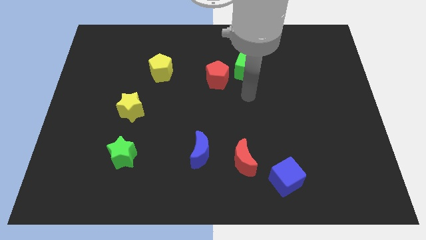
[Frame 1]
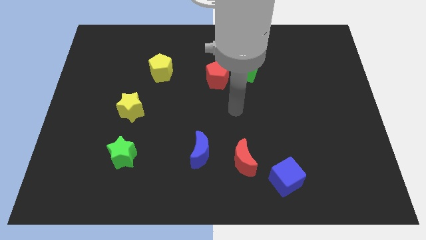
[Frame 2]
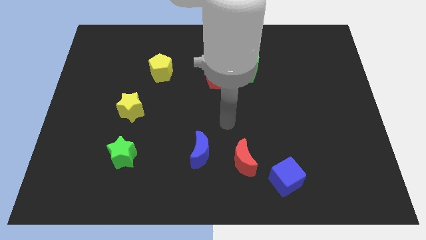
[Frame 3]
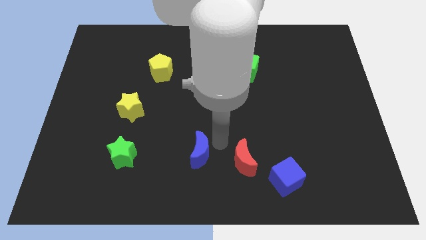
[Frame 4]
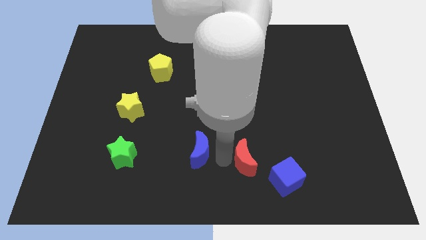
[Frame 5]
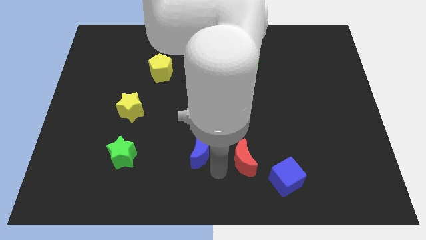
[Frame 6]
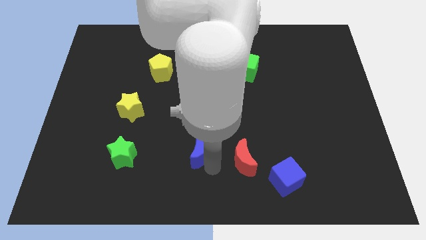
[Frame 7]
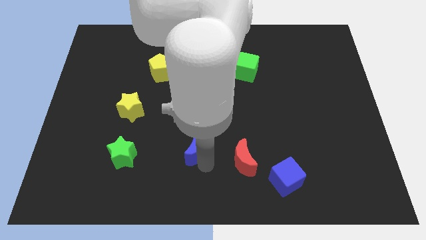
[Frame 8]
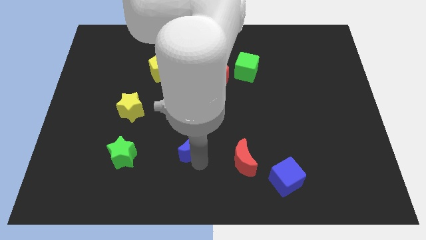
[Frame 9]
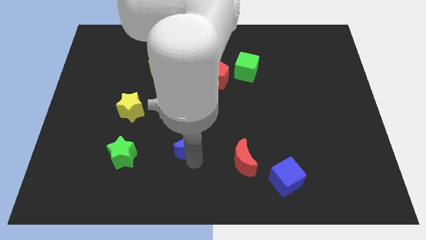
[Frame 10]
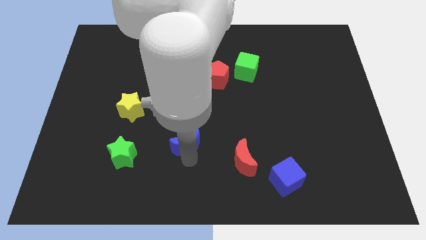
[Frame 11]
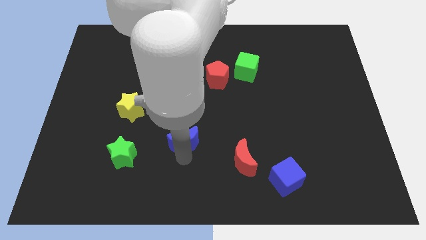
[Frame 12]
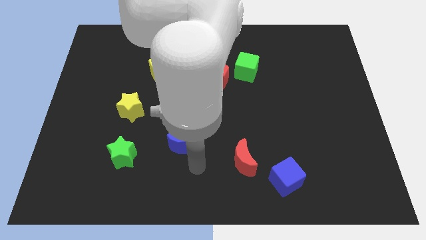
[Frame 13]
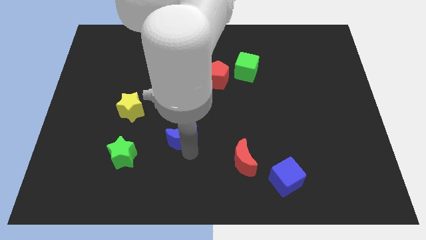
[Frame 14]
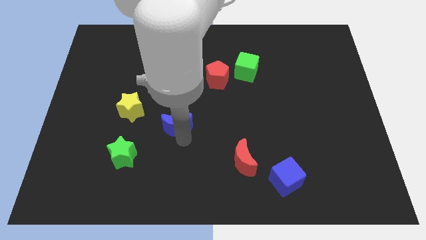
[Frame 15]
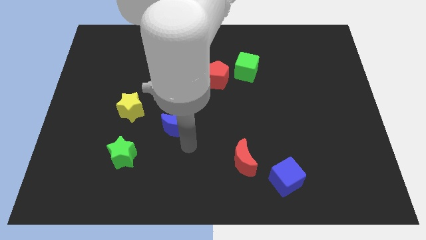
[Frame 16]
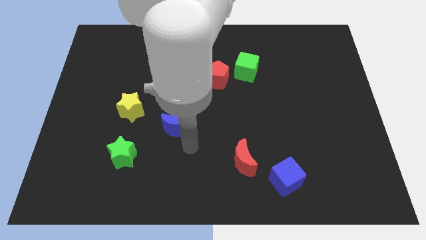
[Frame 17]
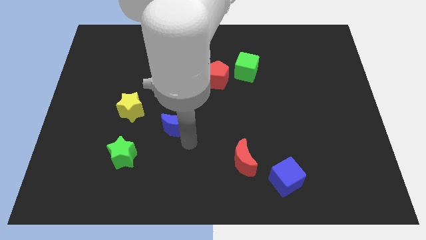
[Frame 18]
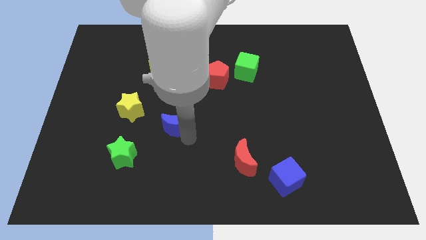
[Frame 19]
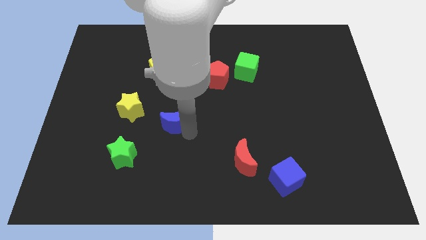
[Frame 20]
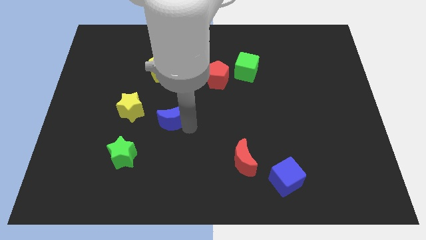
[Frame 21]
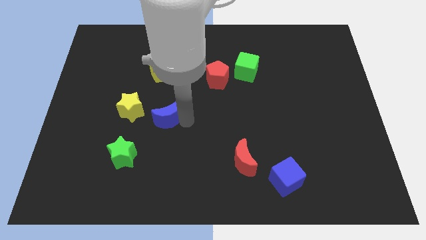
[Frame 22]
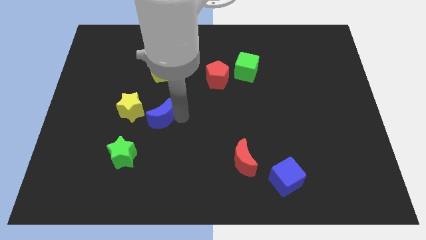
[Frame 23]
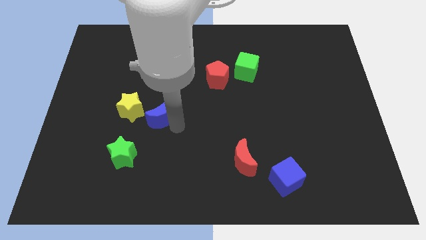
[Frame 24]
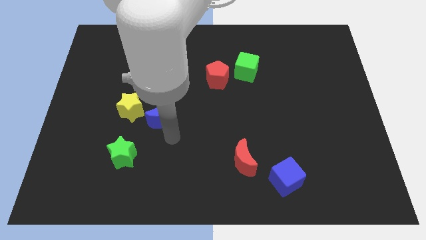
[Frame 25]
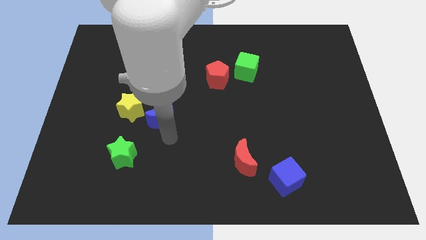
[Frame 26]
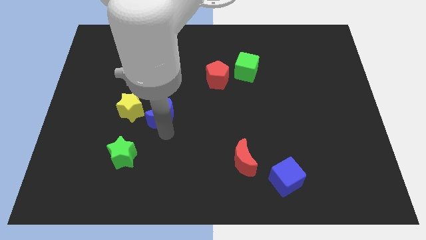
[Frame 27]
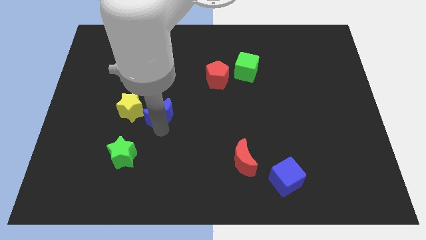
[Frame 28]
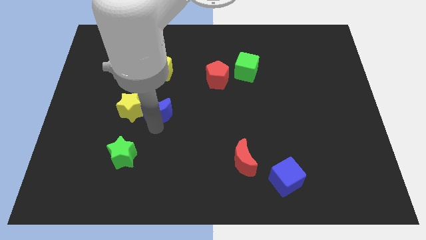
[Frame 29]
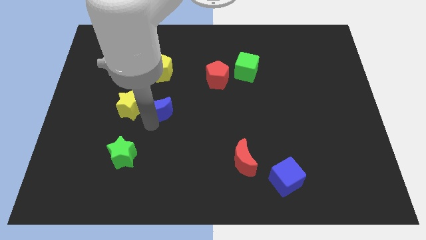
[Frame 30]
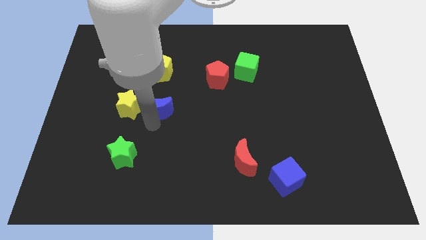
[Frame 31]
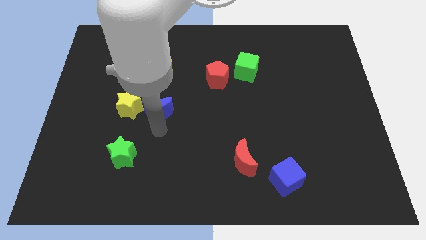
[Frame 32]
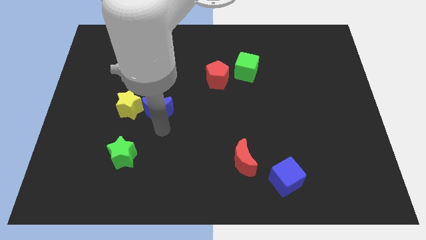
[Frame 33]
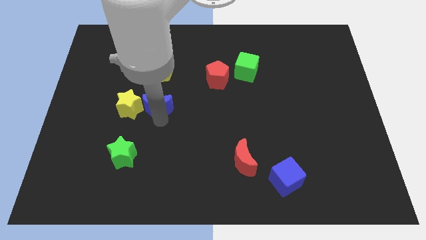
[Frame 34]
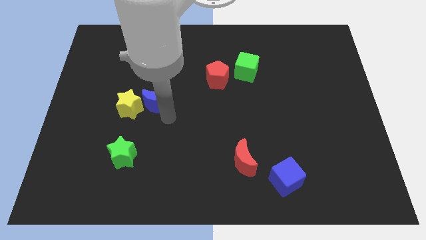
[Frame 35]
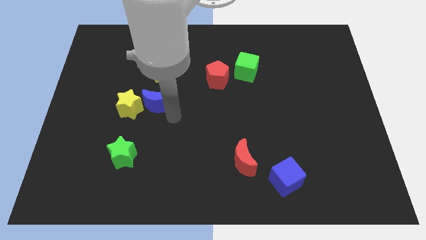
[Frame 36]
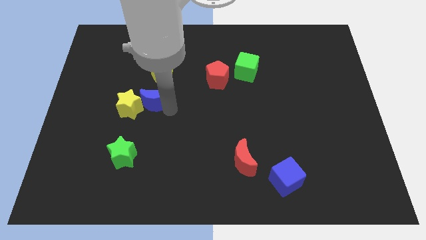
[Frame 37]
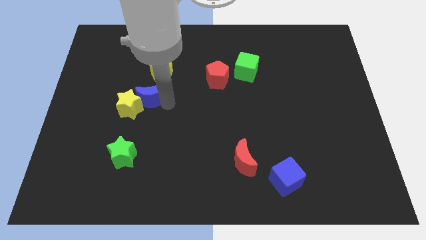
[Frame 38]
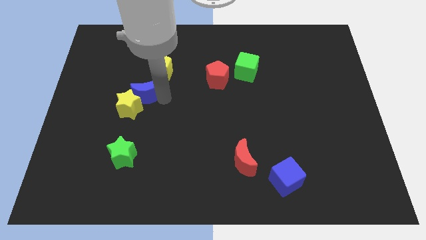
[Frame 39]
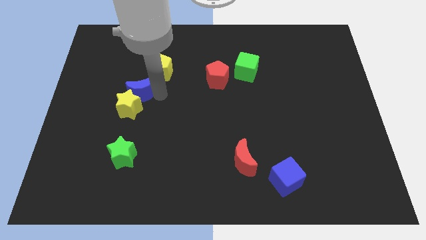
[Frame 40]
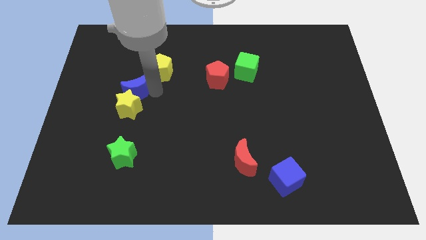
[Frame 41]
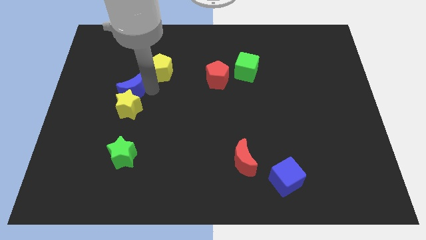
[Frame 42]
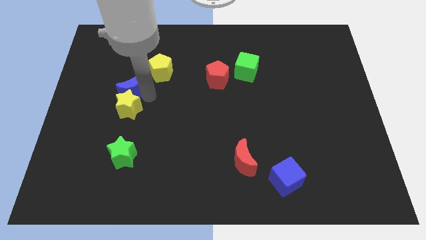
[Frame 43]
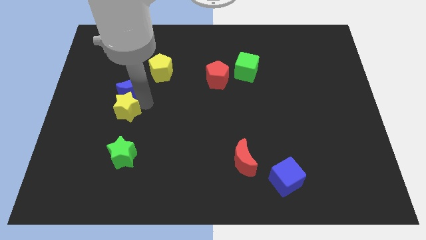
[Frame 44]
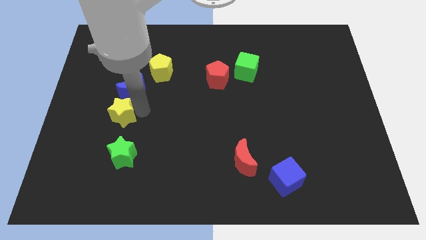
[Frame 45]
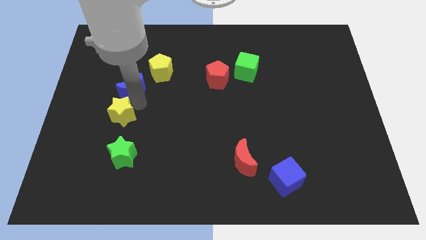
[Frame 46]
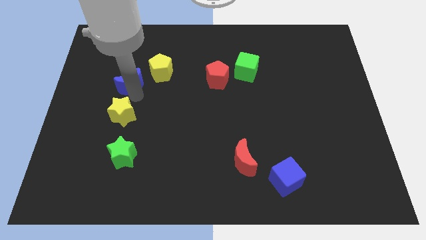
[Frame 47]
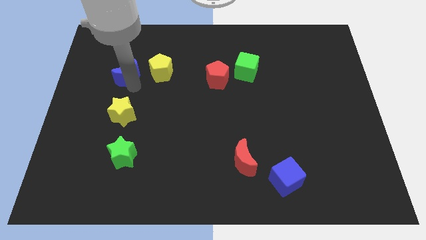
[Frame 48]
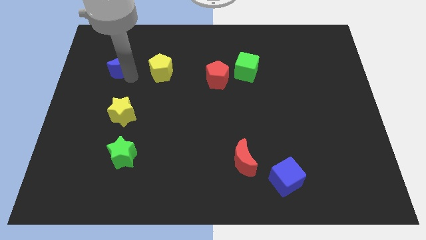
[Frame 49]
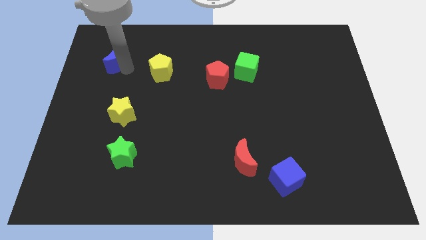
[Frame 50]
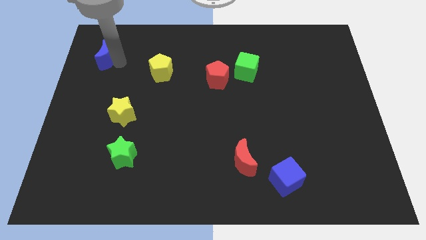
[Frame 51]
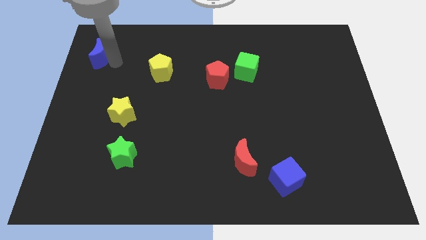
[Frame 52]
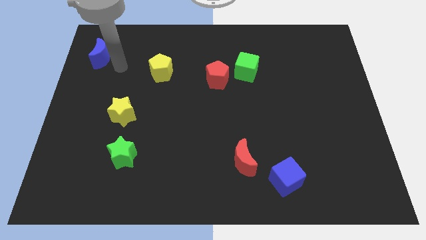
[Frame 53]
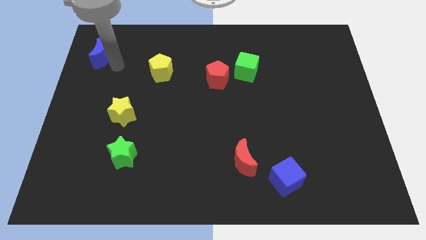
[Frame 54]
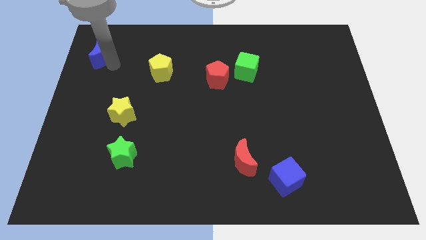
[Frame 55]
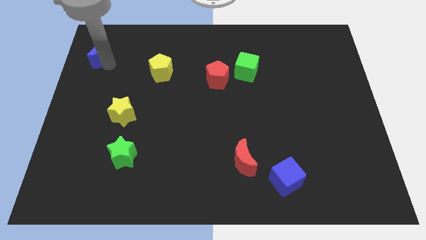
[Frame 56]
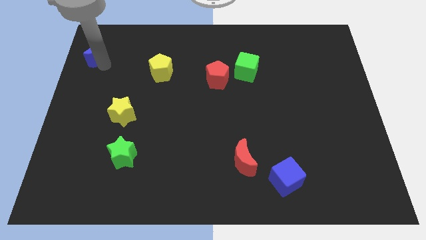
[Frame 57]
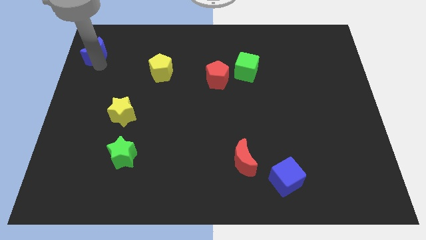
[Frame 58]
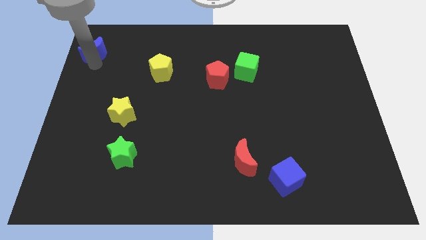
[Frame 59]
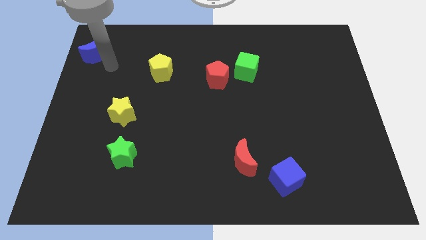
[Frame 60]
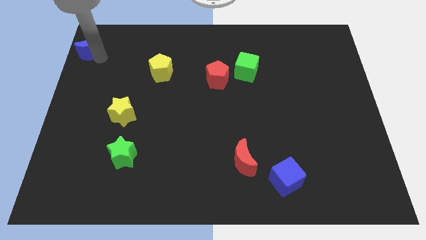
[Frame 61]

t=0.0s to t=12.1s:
slide the blue moon to the upper left corner
